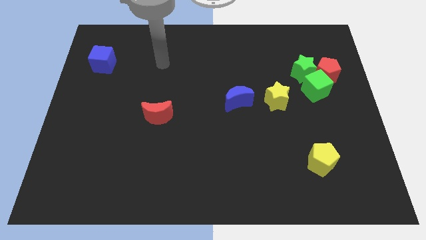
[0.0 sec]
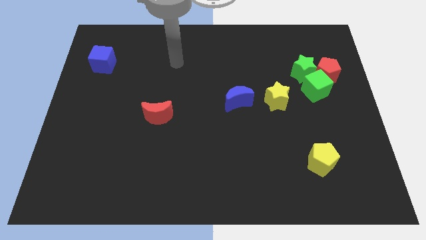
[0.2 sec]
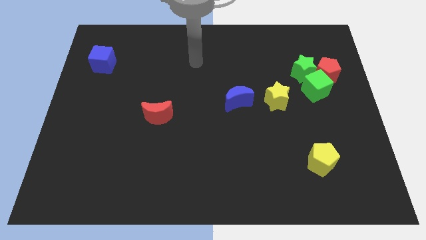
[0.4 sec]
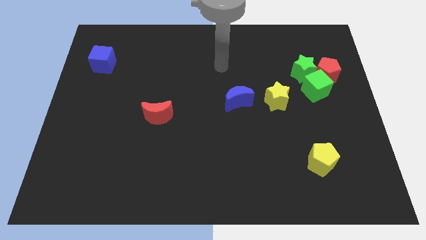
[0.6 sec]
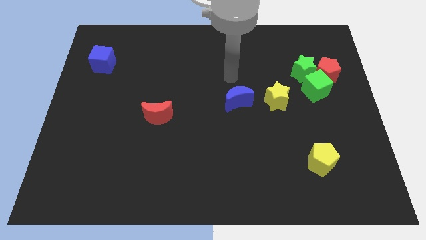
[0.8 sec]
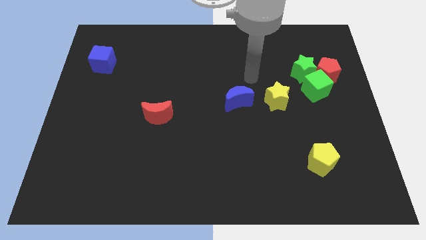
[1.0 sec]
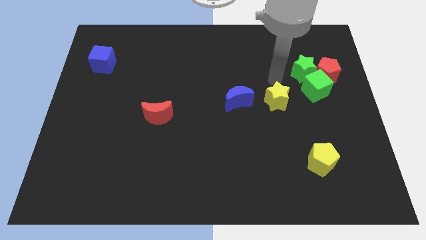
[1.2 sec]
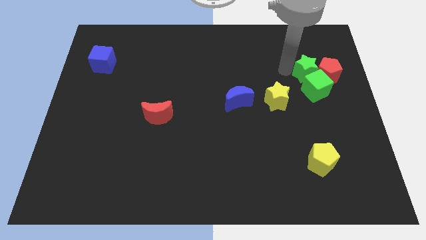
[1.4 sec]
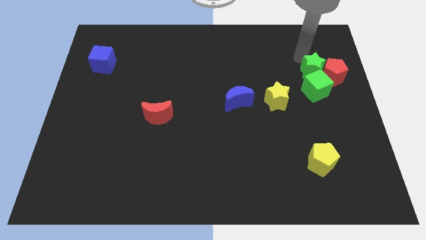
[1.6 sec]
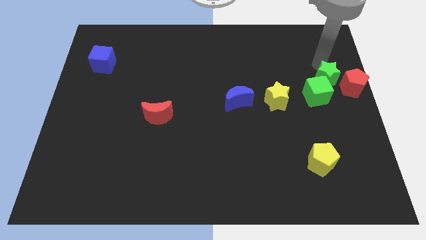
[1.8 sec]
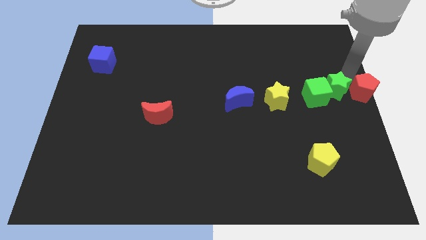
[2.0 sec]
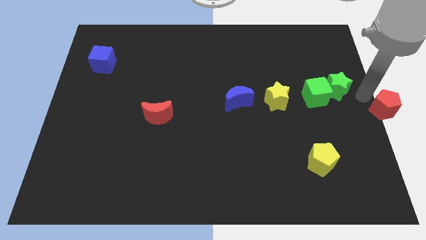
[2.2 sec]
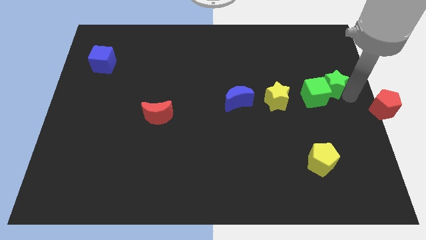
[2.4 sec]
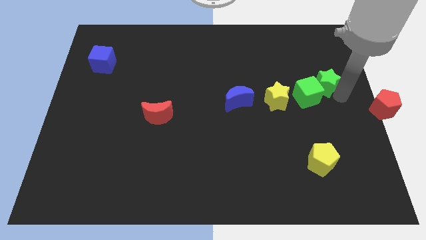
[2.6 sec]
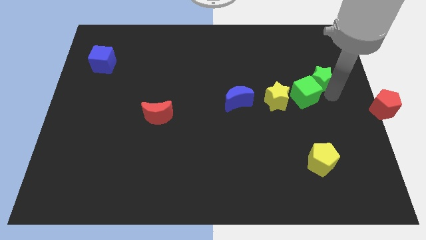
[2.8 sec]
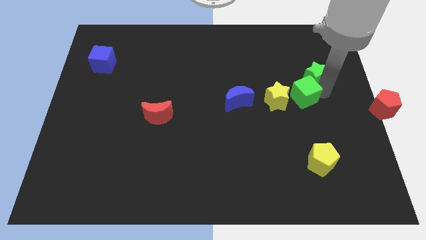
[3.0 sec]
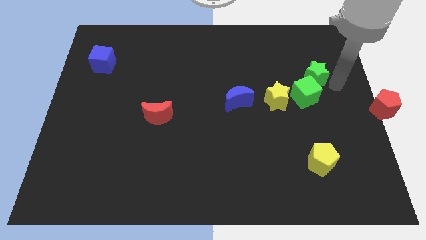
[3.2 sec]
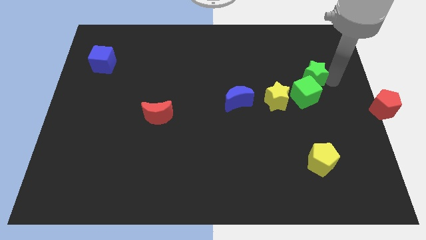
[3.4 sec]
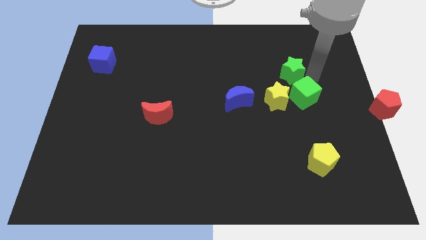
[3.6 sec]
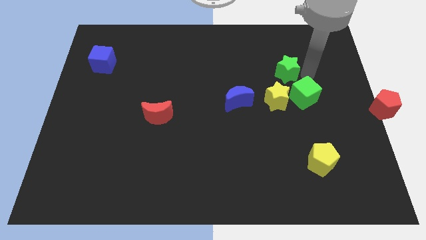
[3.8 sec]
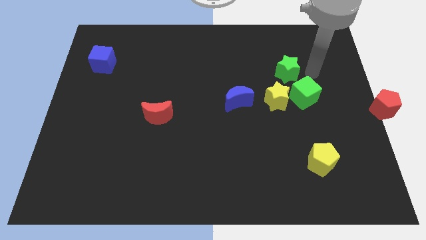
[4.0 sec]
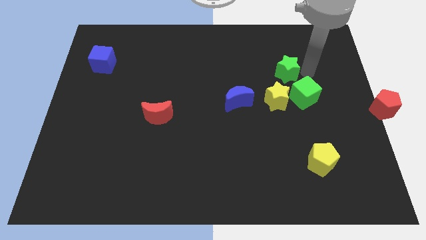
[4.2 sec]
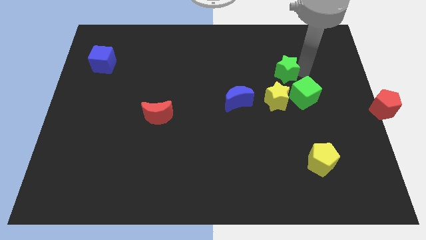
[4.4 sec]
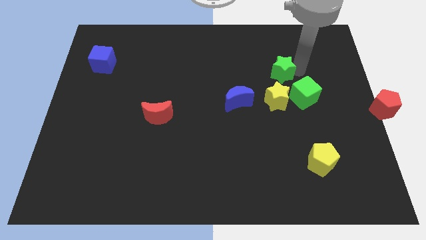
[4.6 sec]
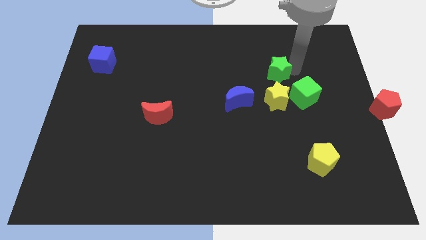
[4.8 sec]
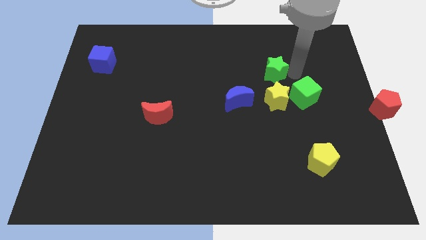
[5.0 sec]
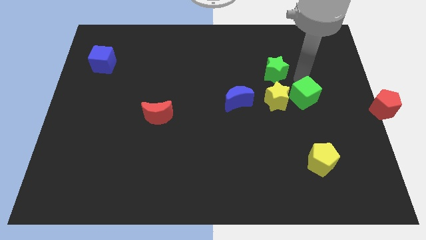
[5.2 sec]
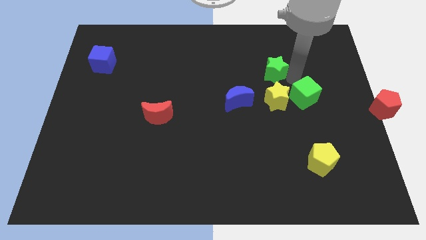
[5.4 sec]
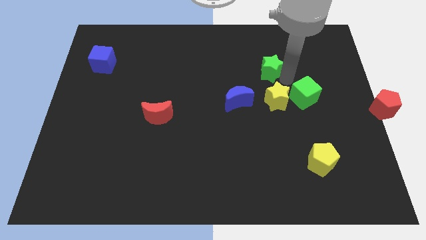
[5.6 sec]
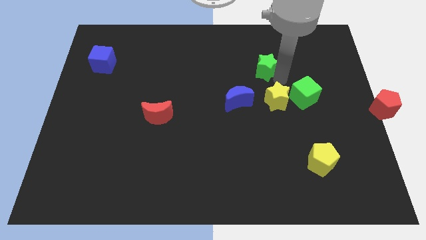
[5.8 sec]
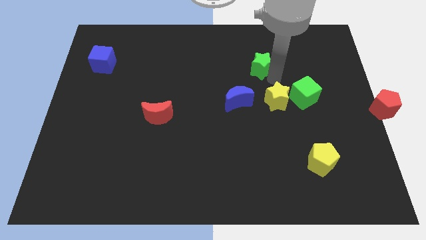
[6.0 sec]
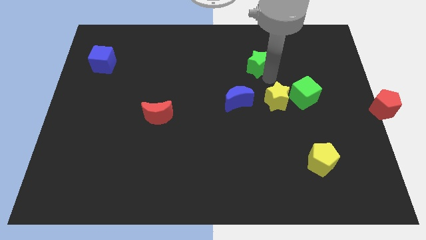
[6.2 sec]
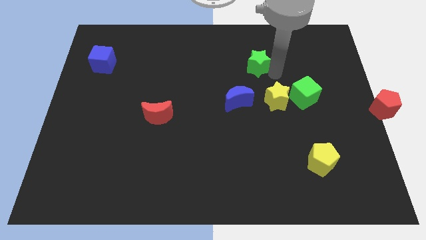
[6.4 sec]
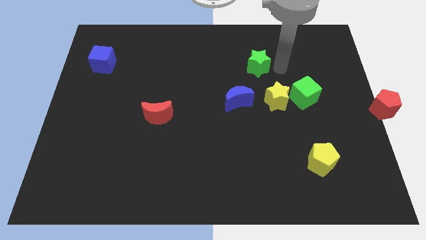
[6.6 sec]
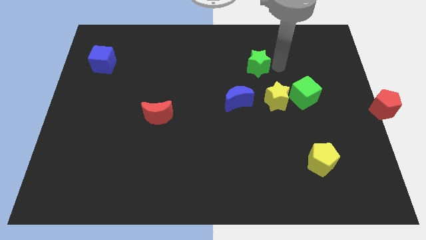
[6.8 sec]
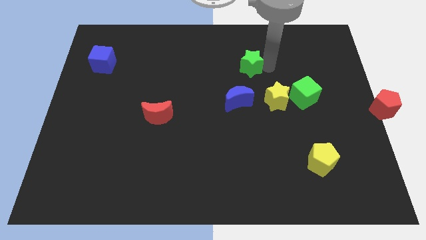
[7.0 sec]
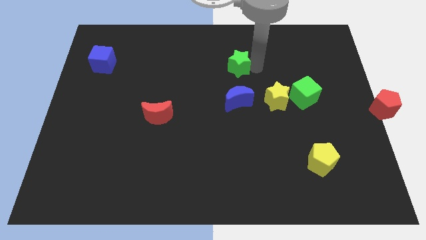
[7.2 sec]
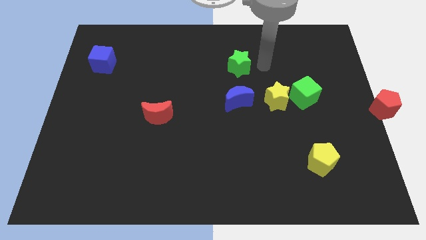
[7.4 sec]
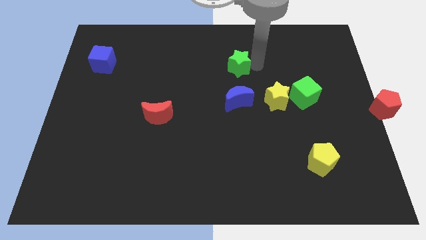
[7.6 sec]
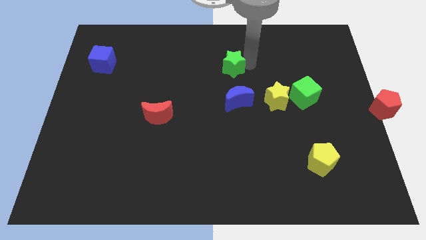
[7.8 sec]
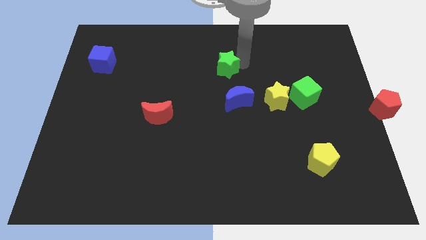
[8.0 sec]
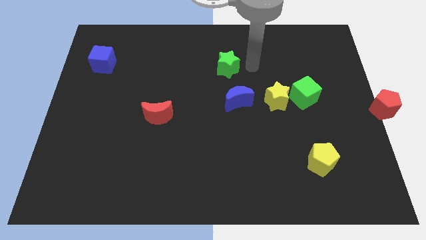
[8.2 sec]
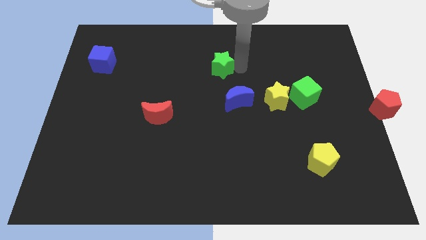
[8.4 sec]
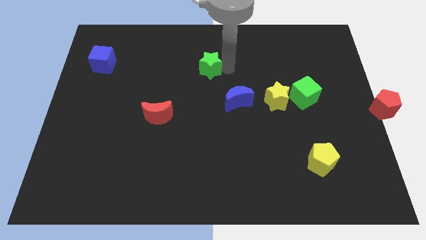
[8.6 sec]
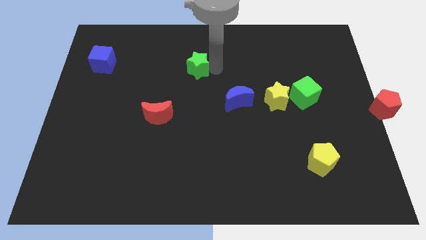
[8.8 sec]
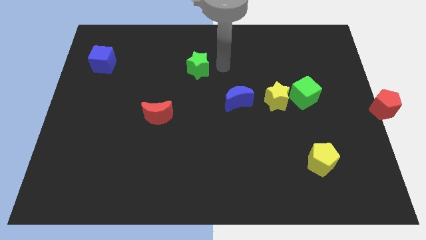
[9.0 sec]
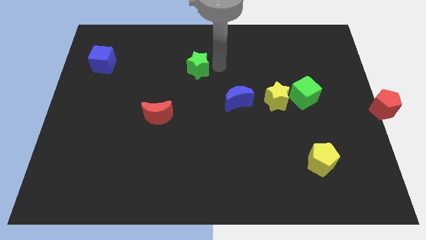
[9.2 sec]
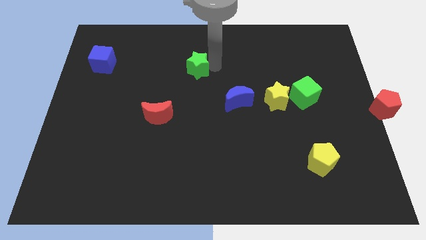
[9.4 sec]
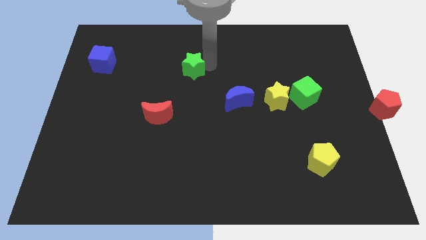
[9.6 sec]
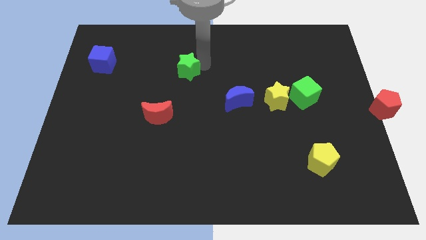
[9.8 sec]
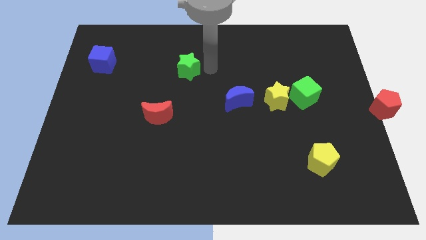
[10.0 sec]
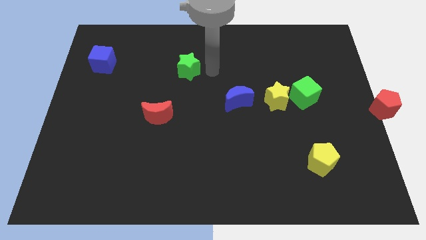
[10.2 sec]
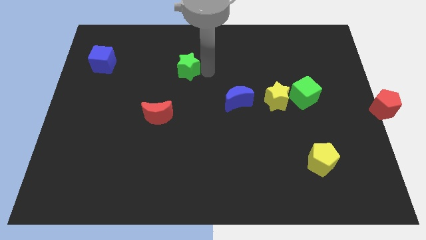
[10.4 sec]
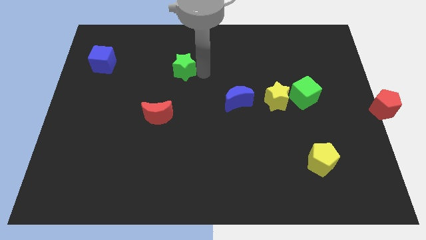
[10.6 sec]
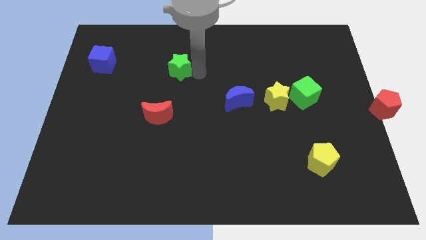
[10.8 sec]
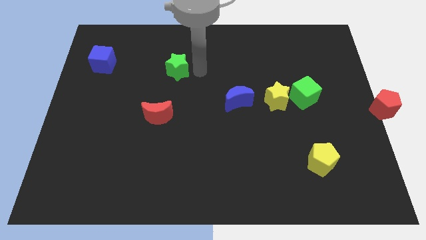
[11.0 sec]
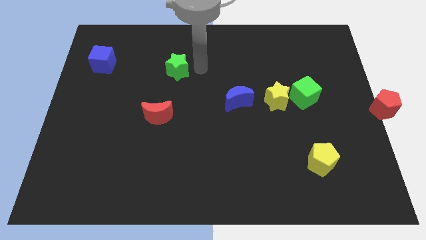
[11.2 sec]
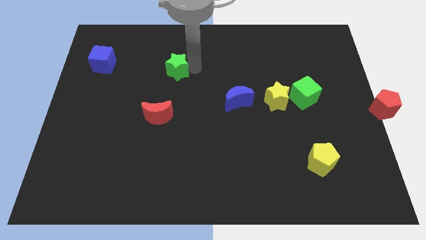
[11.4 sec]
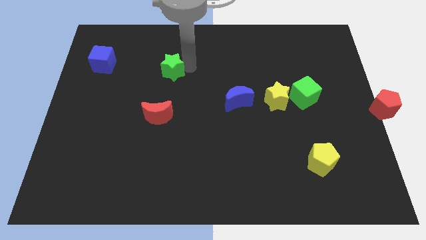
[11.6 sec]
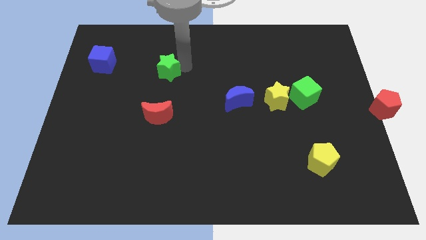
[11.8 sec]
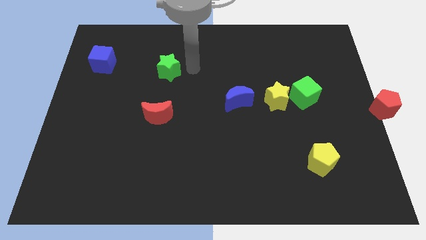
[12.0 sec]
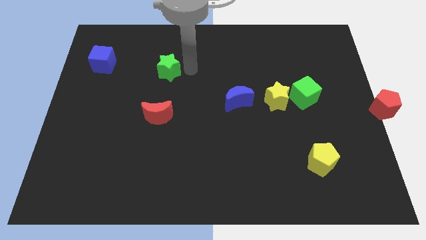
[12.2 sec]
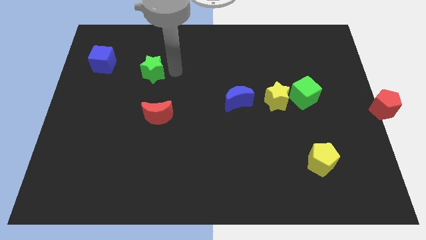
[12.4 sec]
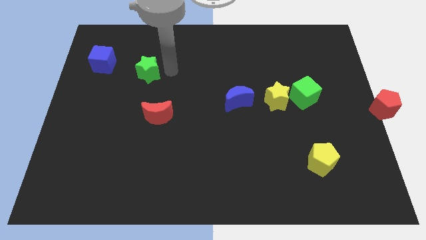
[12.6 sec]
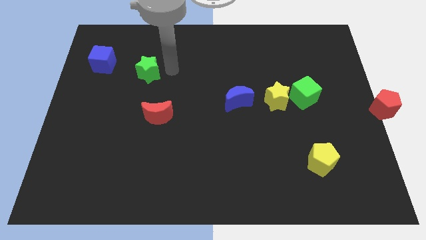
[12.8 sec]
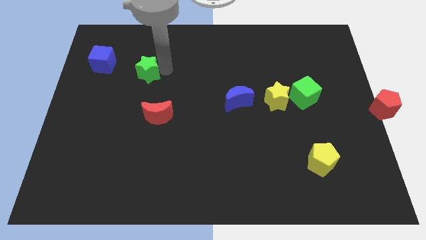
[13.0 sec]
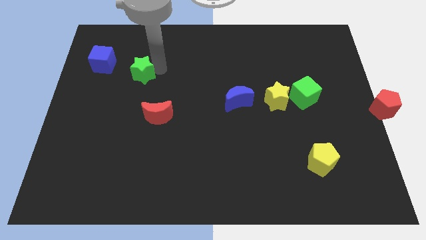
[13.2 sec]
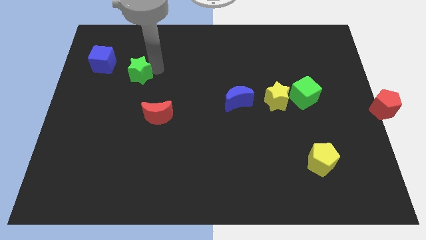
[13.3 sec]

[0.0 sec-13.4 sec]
push the green star diagonally down and to the right of the blue cube

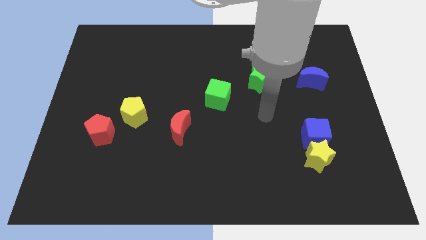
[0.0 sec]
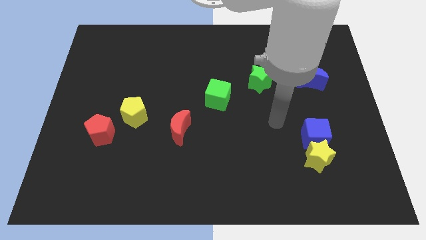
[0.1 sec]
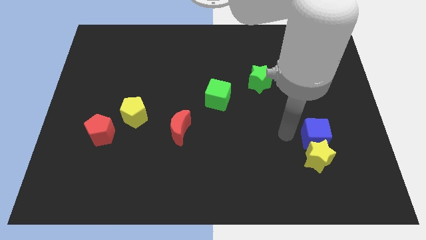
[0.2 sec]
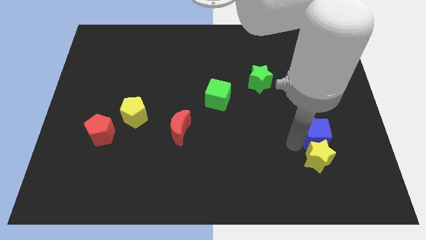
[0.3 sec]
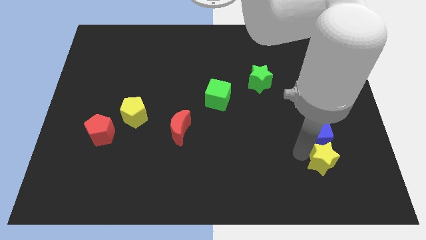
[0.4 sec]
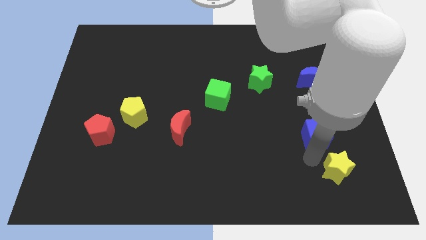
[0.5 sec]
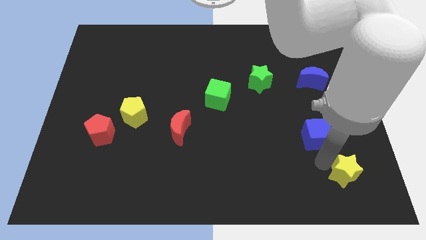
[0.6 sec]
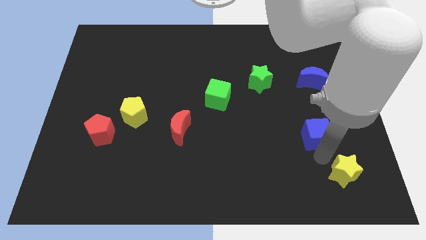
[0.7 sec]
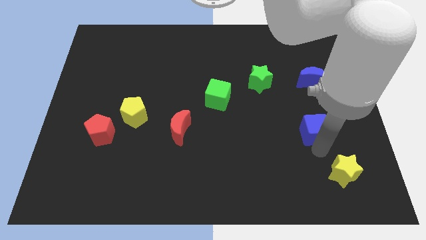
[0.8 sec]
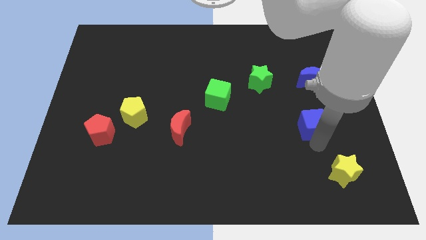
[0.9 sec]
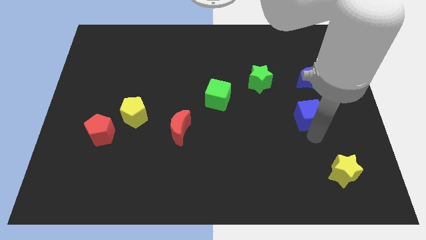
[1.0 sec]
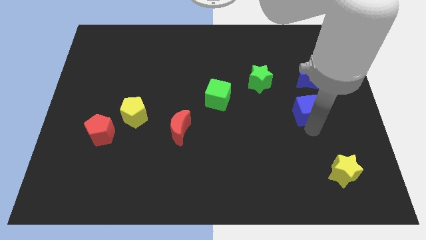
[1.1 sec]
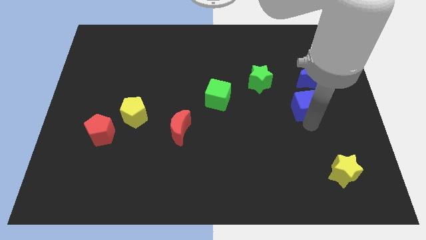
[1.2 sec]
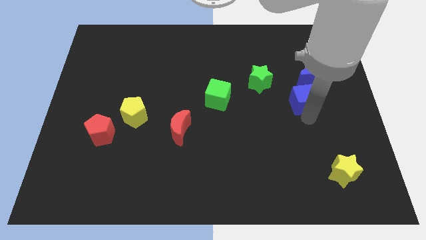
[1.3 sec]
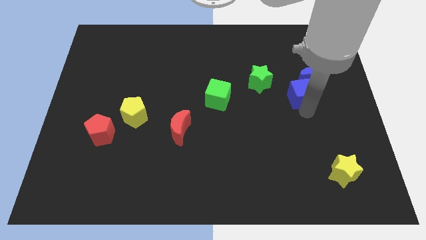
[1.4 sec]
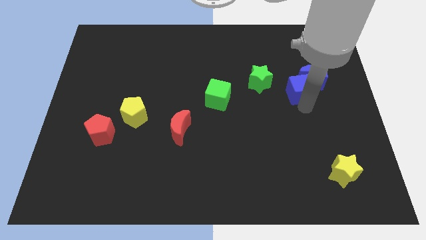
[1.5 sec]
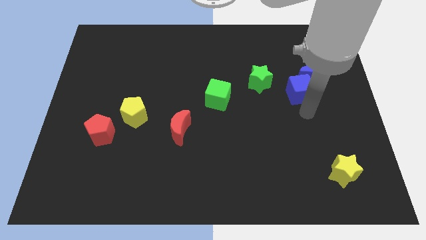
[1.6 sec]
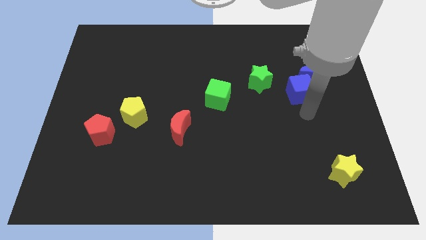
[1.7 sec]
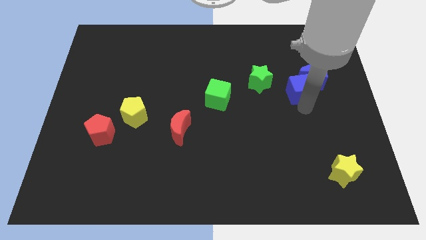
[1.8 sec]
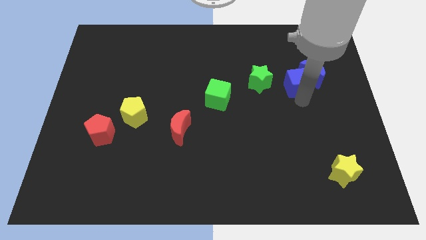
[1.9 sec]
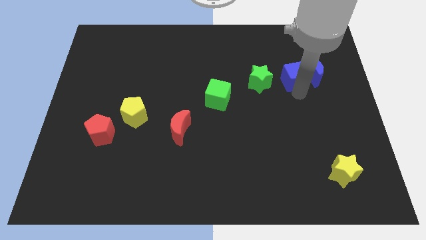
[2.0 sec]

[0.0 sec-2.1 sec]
put the blue cube to the top left side of the blue moon
